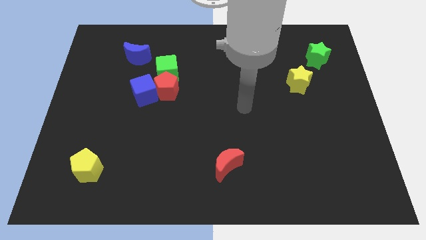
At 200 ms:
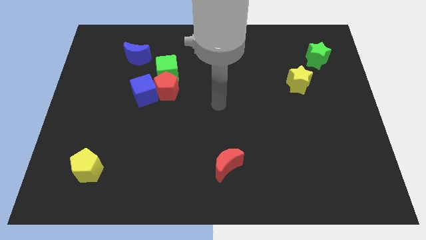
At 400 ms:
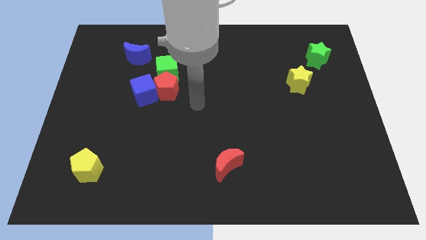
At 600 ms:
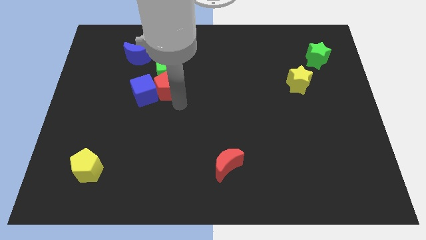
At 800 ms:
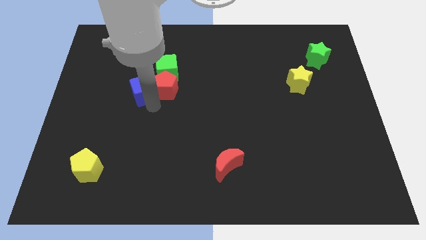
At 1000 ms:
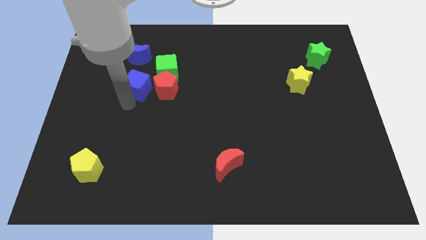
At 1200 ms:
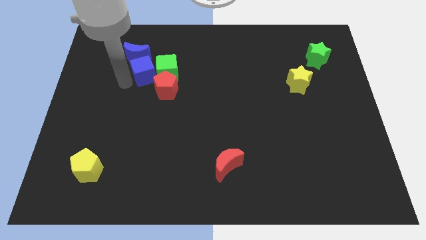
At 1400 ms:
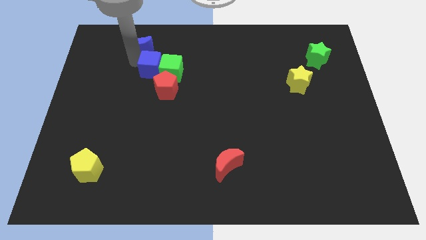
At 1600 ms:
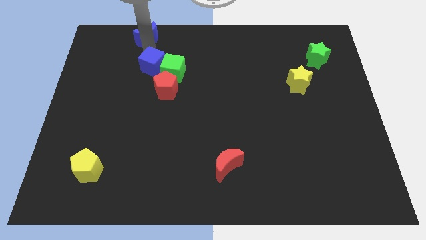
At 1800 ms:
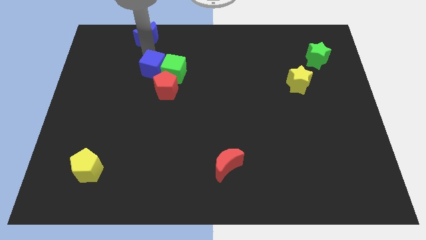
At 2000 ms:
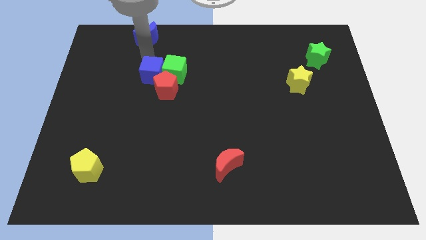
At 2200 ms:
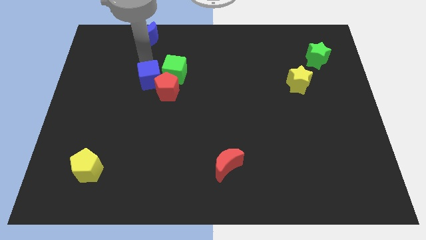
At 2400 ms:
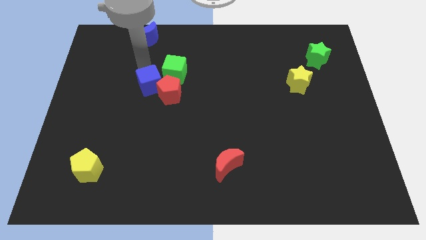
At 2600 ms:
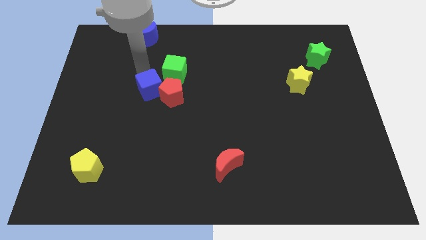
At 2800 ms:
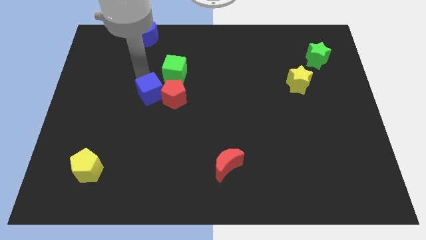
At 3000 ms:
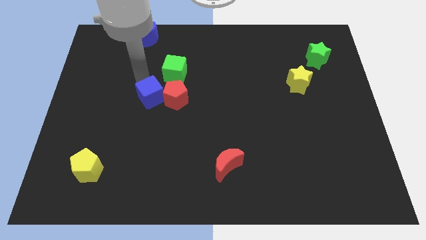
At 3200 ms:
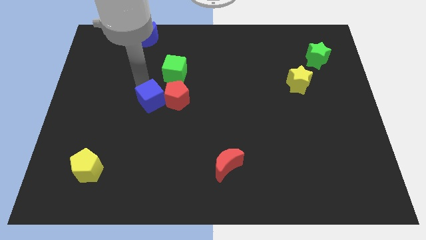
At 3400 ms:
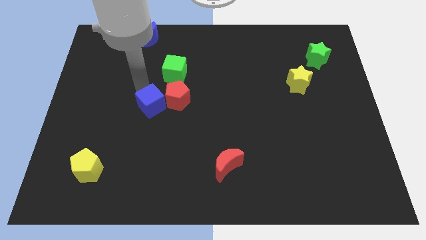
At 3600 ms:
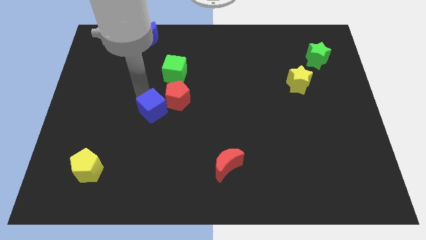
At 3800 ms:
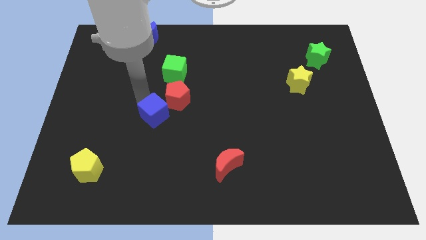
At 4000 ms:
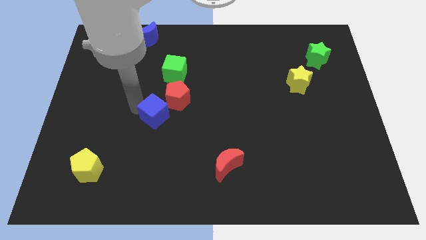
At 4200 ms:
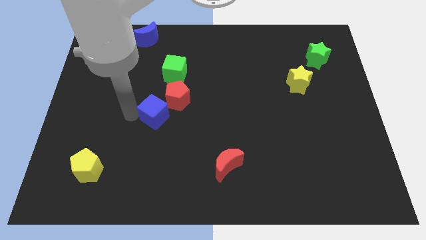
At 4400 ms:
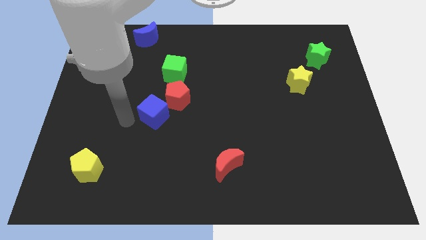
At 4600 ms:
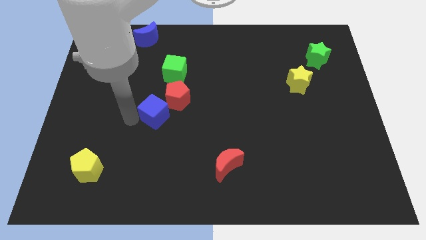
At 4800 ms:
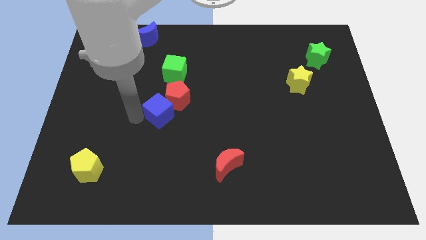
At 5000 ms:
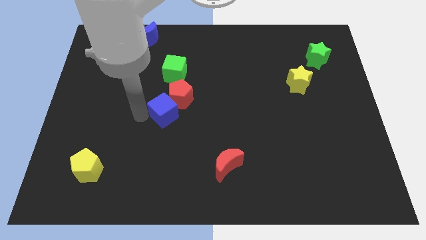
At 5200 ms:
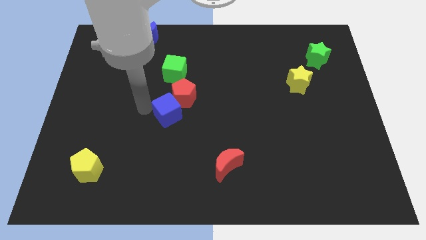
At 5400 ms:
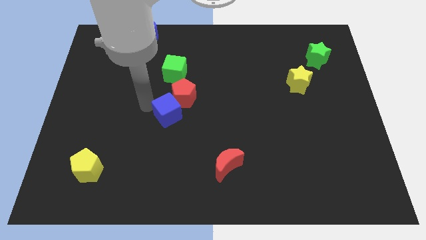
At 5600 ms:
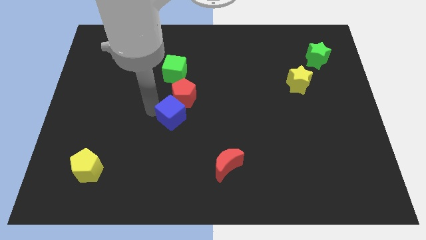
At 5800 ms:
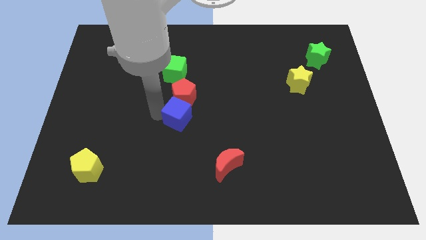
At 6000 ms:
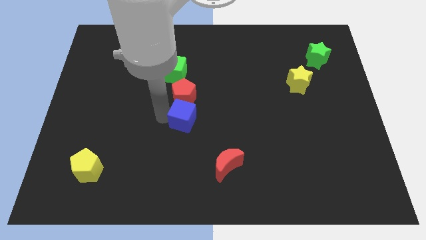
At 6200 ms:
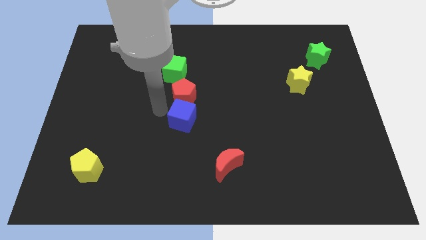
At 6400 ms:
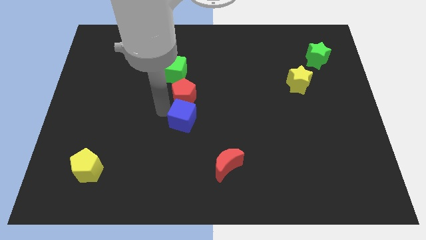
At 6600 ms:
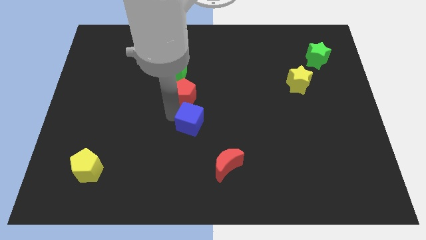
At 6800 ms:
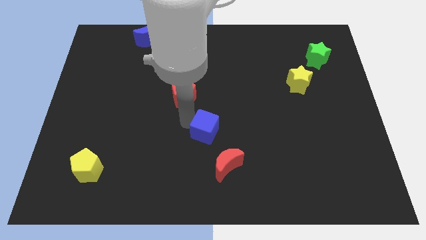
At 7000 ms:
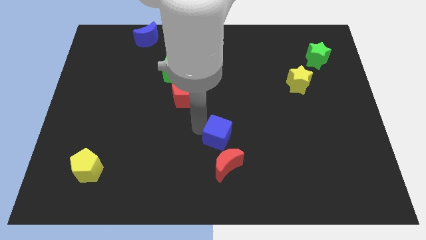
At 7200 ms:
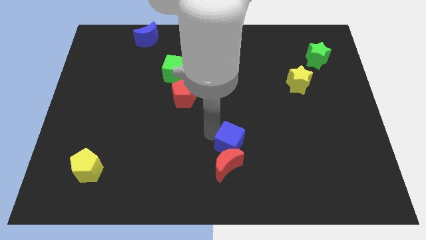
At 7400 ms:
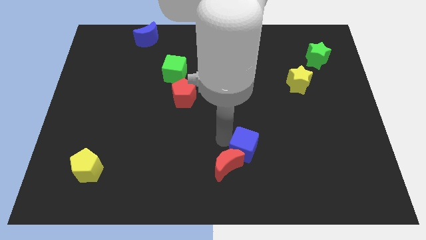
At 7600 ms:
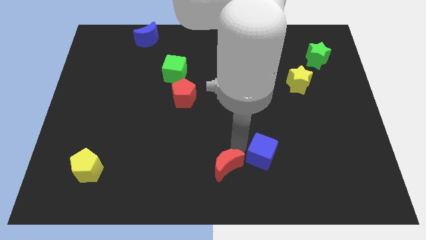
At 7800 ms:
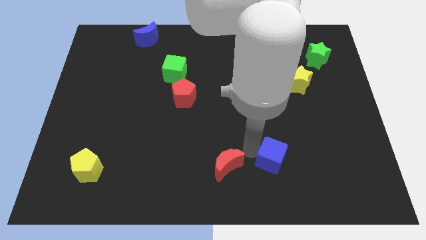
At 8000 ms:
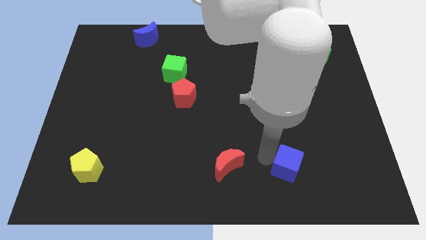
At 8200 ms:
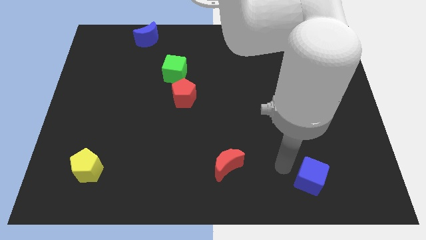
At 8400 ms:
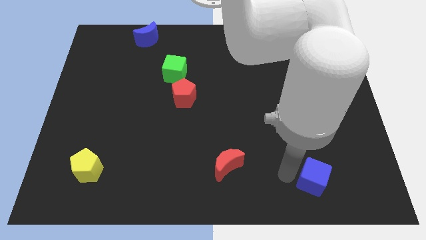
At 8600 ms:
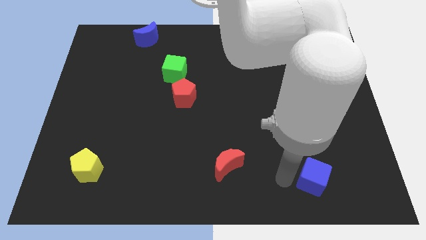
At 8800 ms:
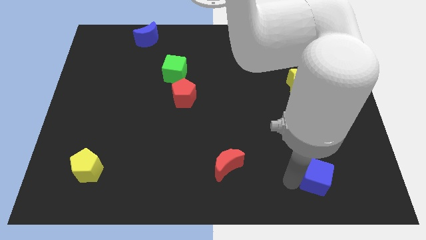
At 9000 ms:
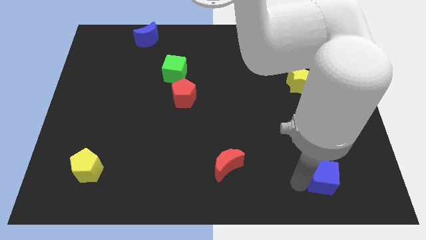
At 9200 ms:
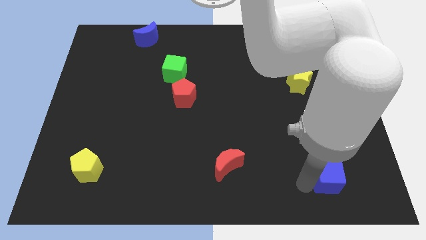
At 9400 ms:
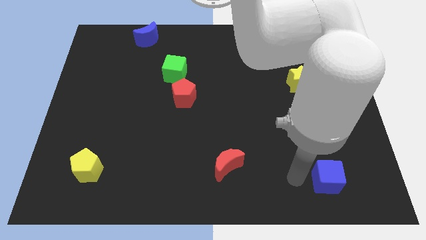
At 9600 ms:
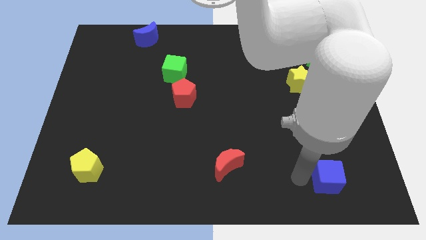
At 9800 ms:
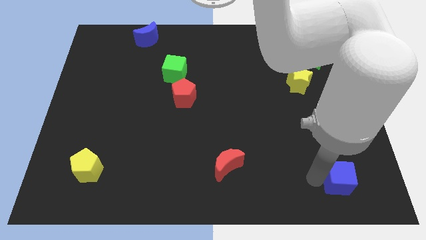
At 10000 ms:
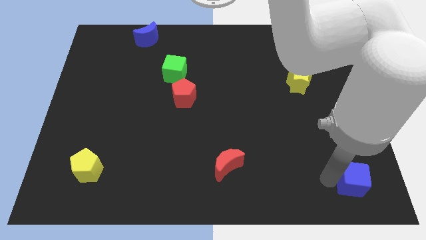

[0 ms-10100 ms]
slide the blue cube to the bottom right

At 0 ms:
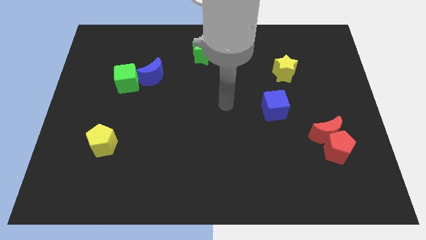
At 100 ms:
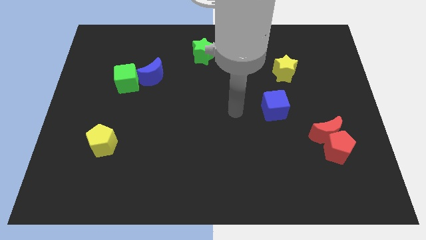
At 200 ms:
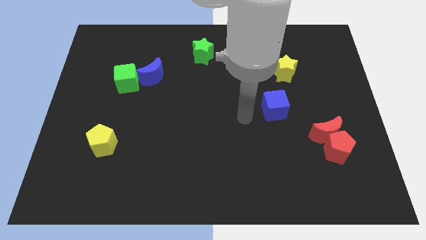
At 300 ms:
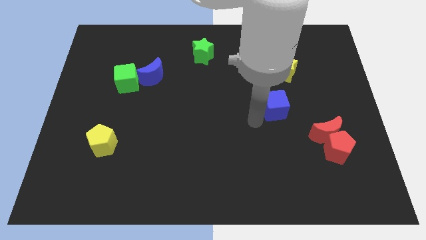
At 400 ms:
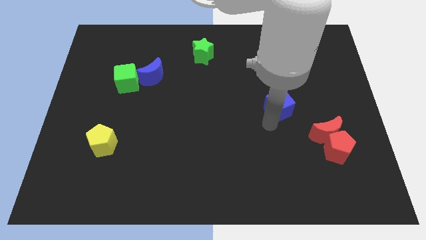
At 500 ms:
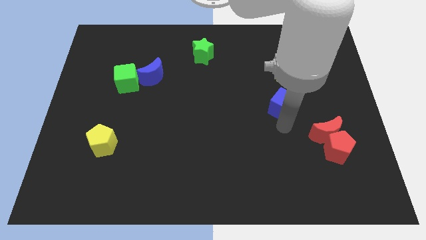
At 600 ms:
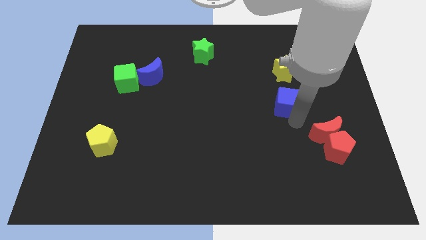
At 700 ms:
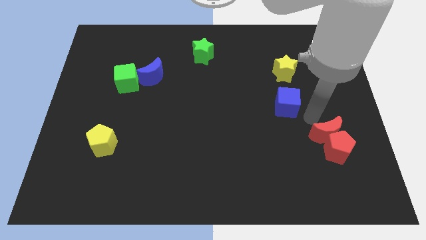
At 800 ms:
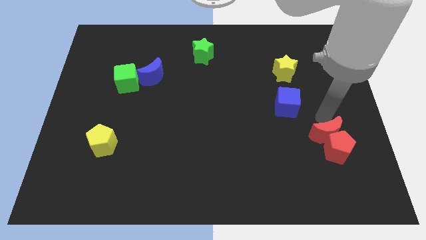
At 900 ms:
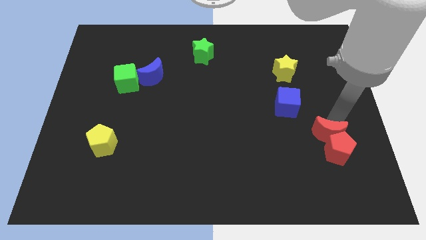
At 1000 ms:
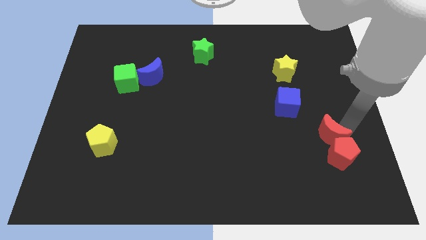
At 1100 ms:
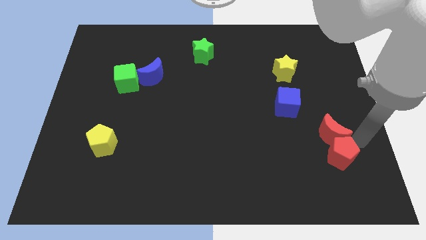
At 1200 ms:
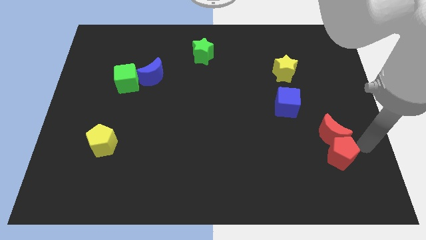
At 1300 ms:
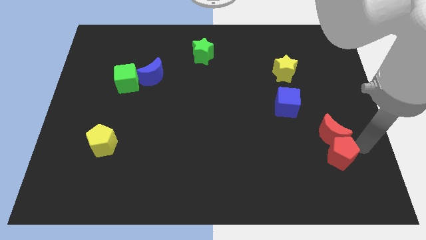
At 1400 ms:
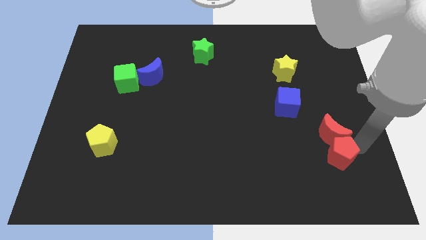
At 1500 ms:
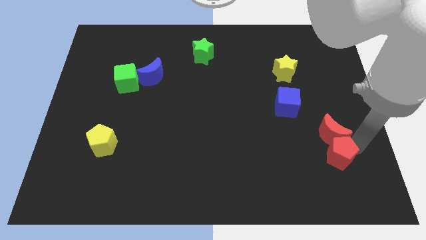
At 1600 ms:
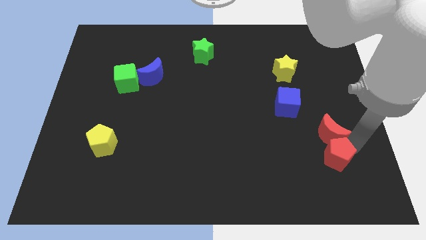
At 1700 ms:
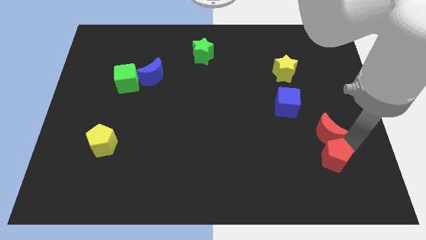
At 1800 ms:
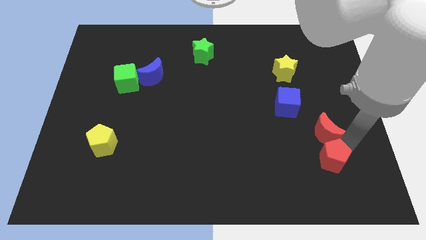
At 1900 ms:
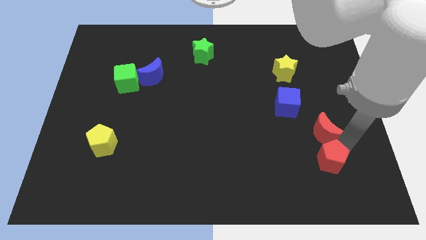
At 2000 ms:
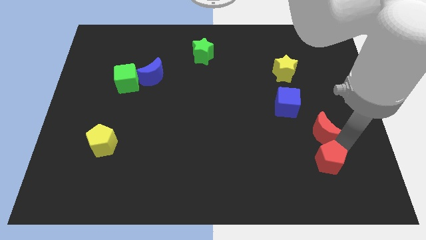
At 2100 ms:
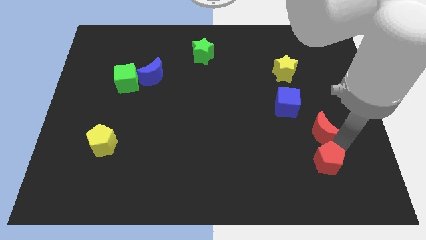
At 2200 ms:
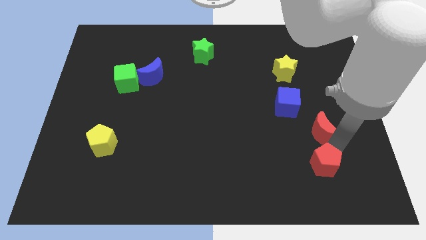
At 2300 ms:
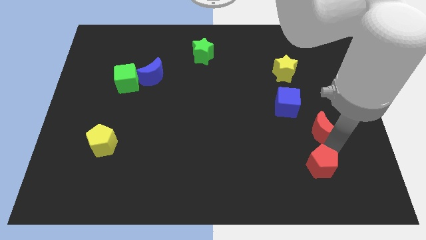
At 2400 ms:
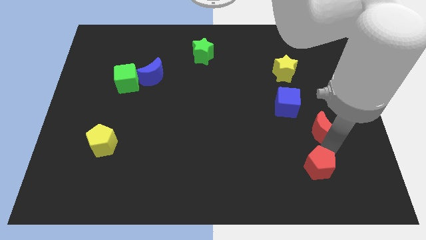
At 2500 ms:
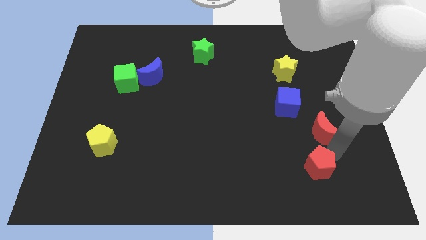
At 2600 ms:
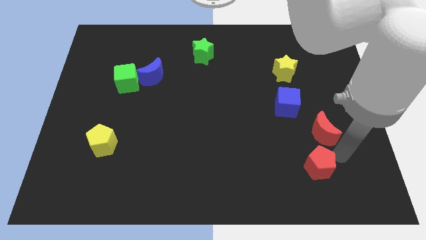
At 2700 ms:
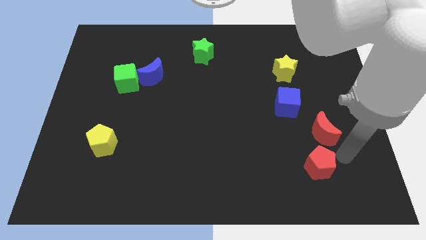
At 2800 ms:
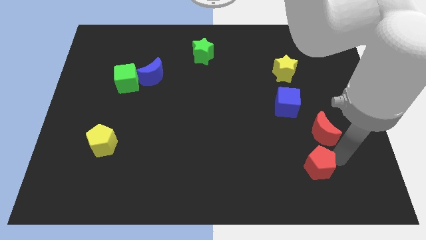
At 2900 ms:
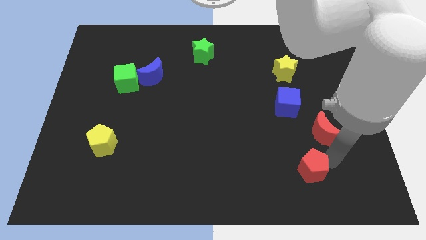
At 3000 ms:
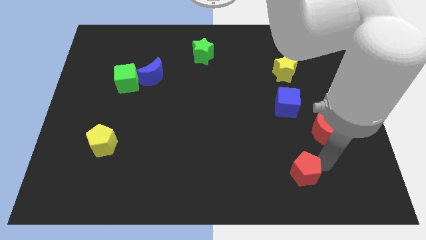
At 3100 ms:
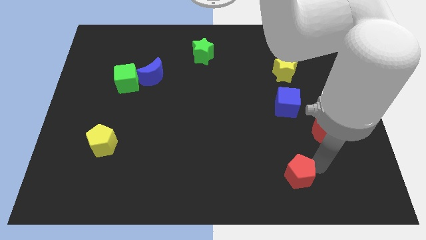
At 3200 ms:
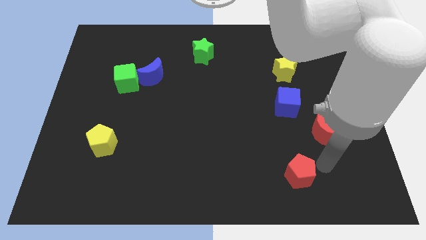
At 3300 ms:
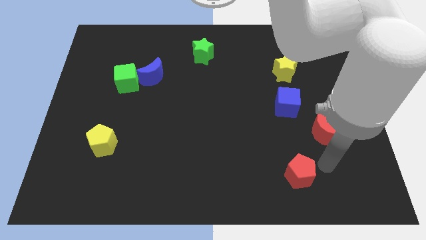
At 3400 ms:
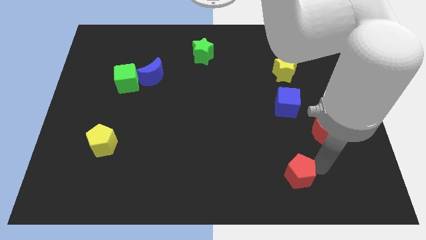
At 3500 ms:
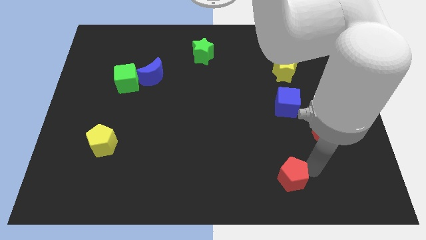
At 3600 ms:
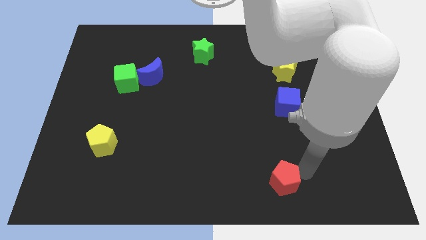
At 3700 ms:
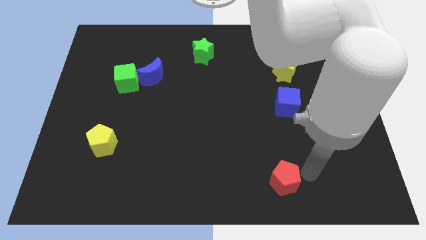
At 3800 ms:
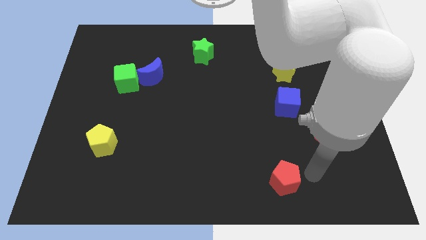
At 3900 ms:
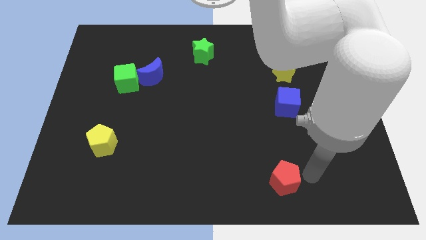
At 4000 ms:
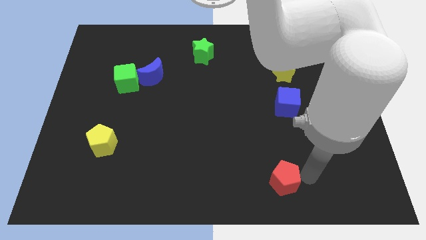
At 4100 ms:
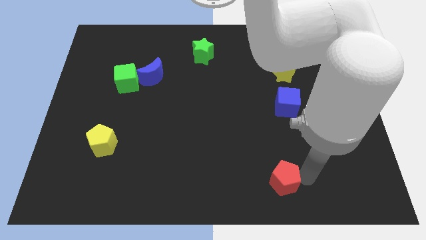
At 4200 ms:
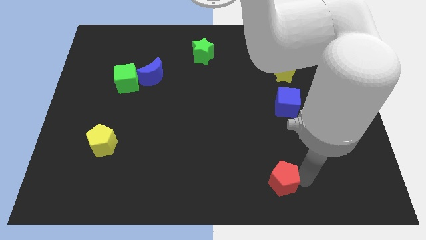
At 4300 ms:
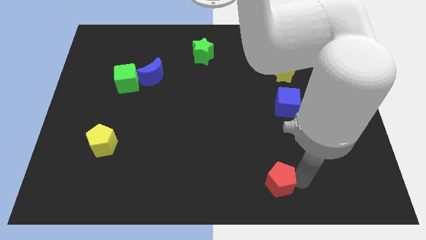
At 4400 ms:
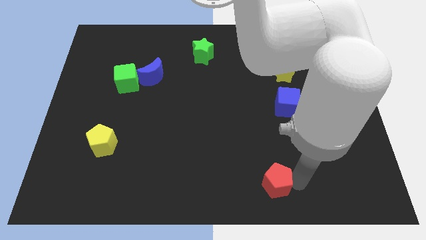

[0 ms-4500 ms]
push the red pentagon to the bottom side
